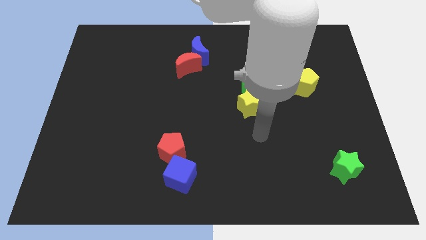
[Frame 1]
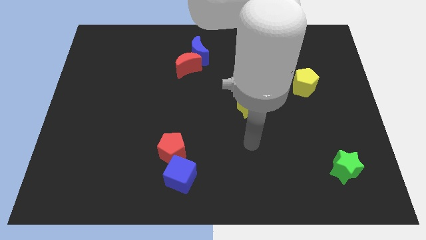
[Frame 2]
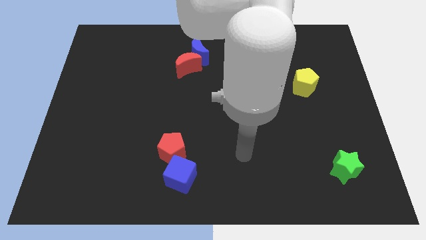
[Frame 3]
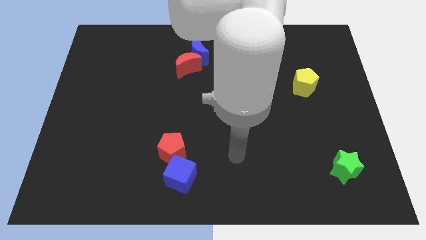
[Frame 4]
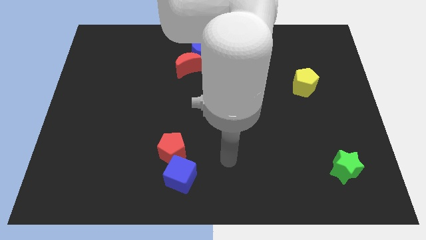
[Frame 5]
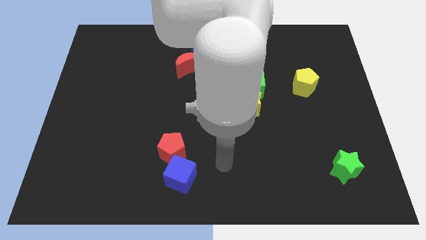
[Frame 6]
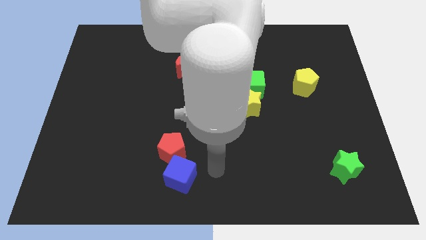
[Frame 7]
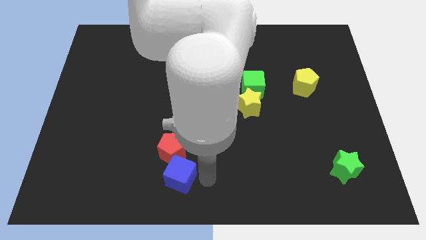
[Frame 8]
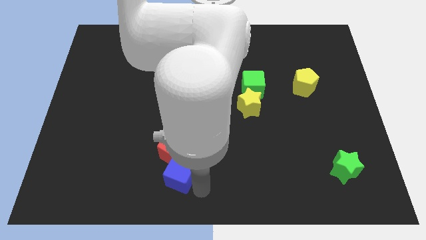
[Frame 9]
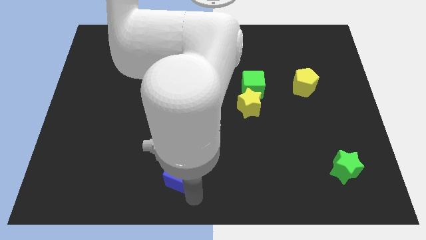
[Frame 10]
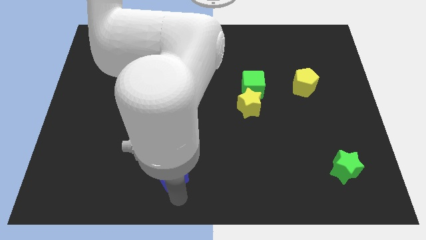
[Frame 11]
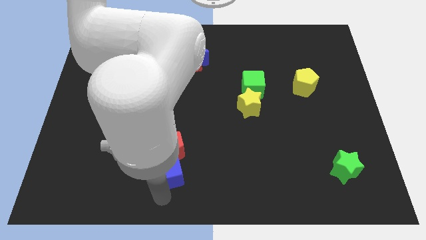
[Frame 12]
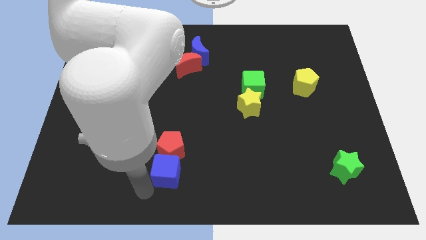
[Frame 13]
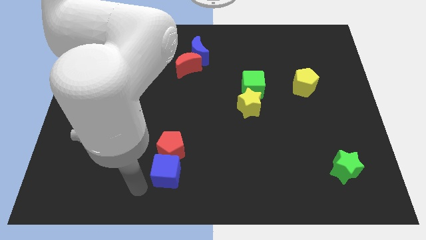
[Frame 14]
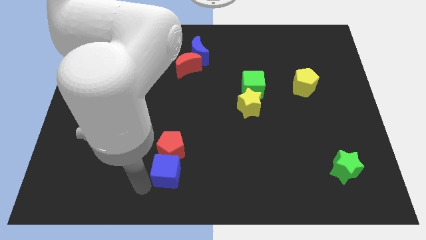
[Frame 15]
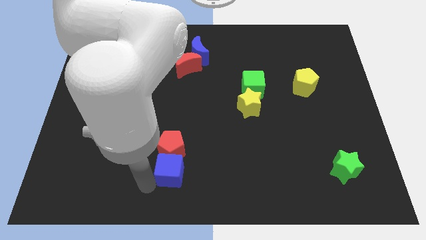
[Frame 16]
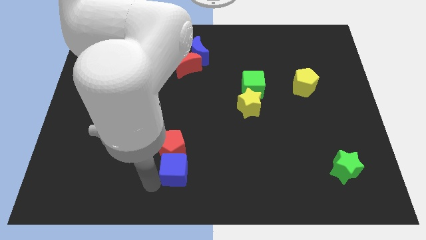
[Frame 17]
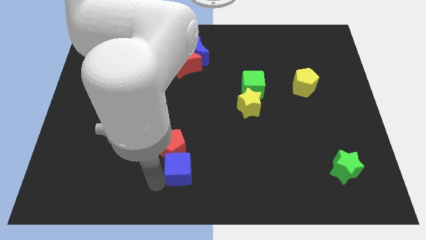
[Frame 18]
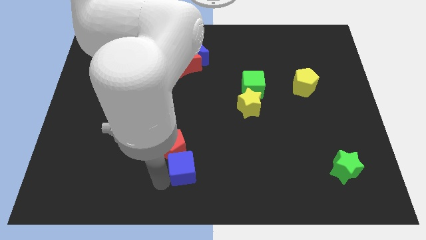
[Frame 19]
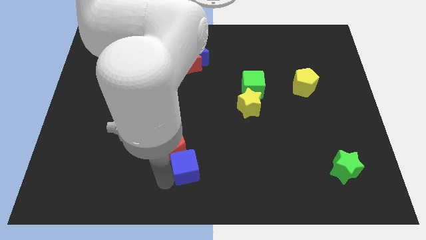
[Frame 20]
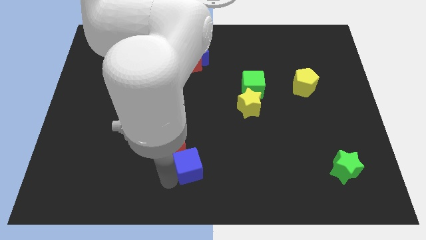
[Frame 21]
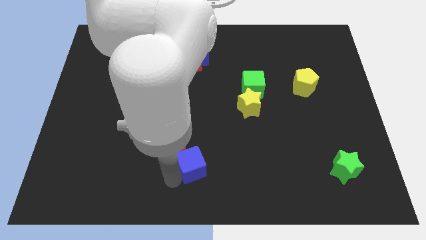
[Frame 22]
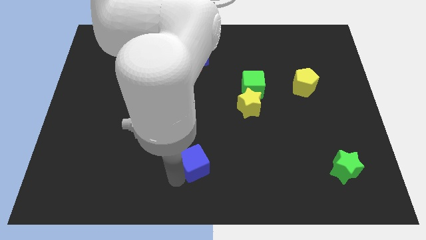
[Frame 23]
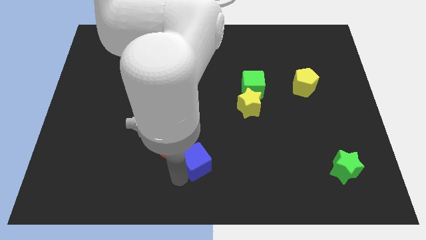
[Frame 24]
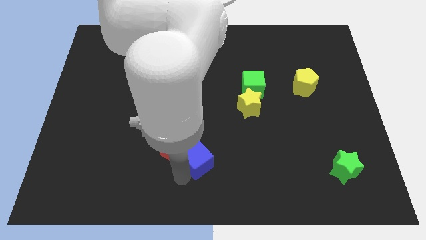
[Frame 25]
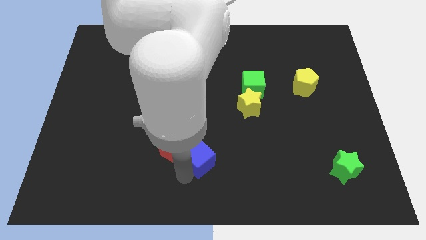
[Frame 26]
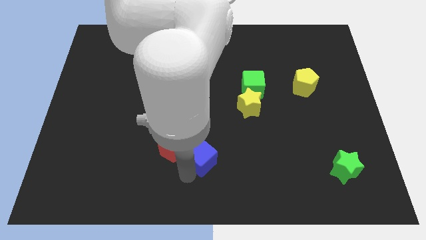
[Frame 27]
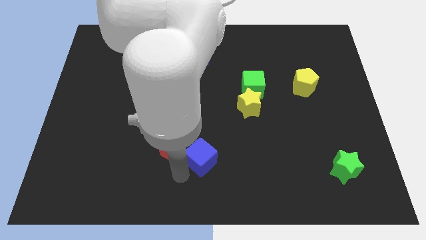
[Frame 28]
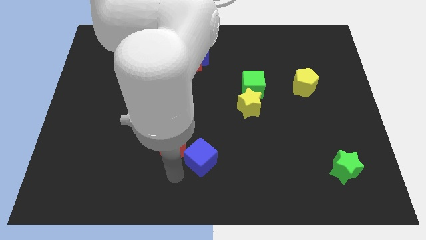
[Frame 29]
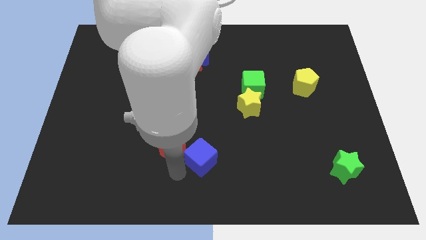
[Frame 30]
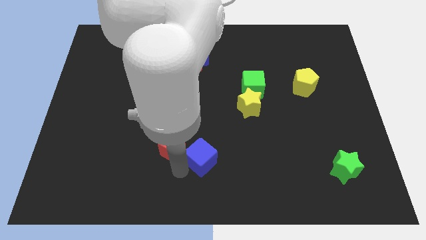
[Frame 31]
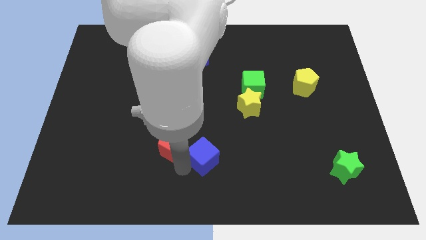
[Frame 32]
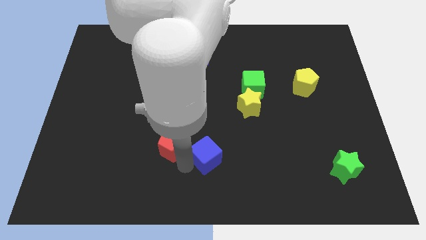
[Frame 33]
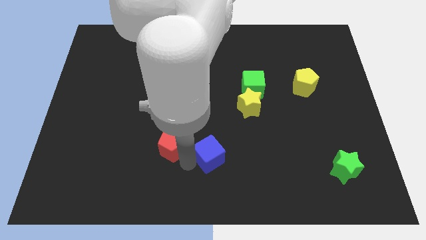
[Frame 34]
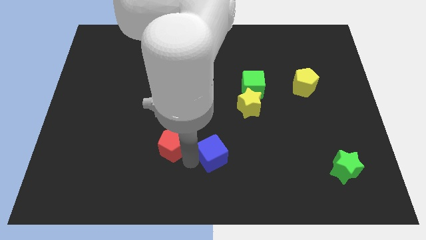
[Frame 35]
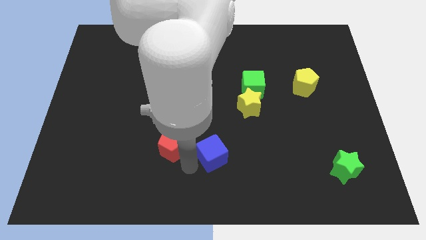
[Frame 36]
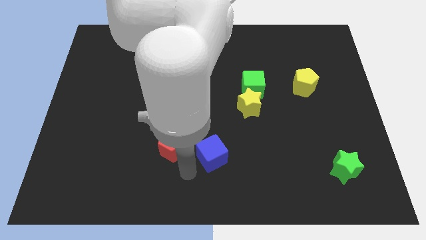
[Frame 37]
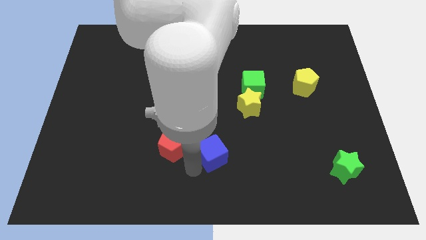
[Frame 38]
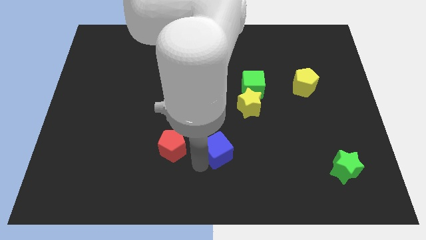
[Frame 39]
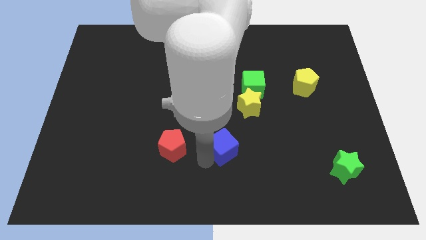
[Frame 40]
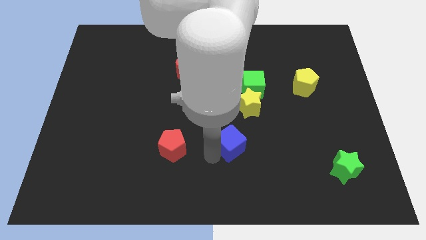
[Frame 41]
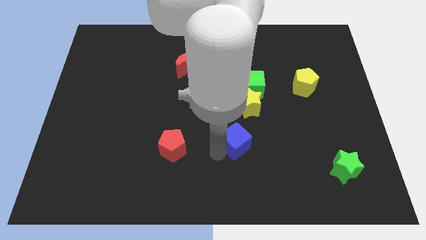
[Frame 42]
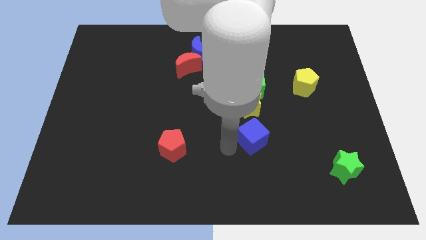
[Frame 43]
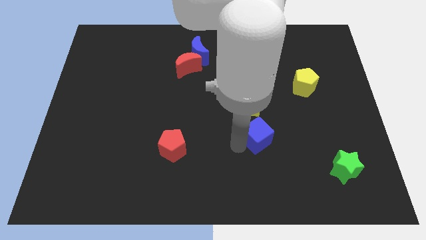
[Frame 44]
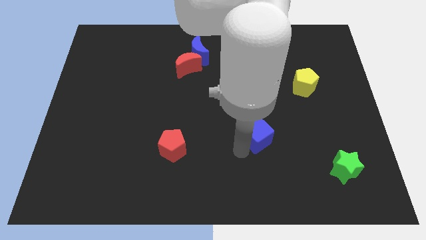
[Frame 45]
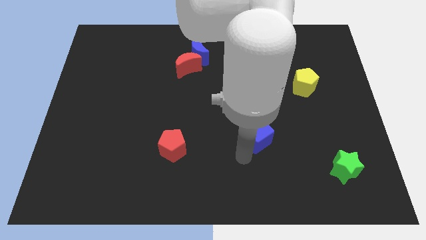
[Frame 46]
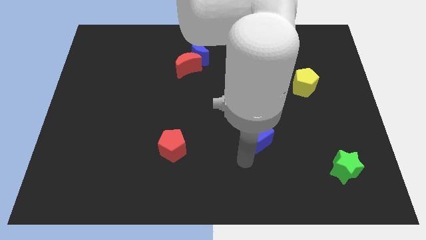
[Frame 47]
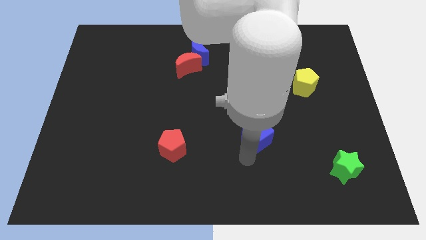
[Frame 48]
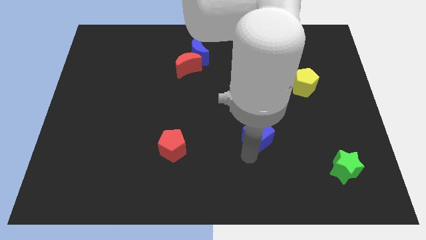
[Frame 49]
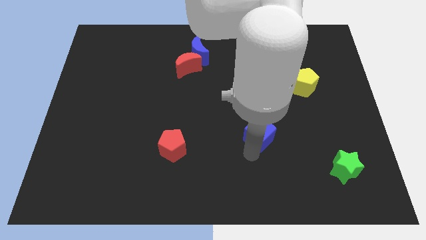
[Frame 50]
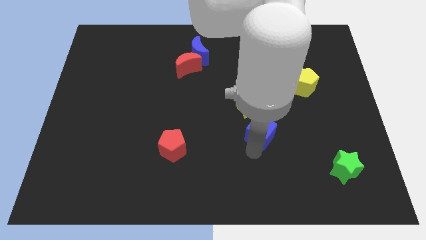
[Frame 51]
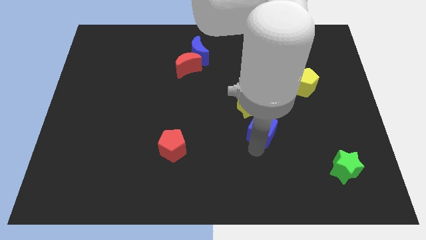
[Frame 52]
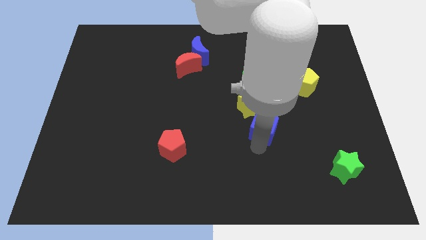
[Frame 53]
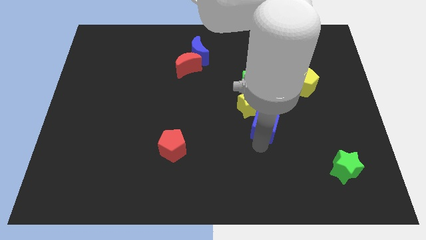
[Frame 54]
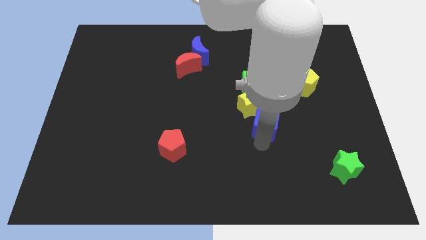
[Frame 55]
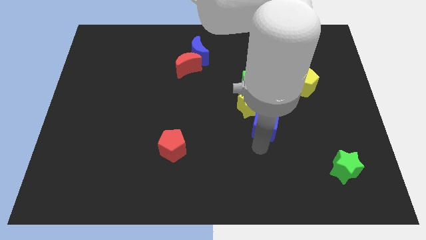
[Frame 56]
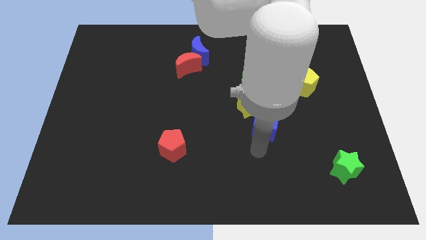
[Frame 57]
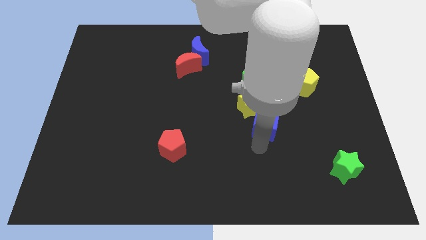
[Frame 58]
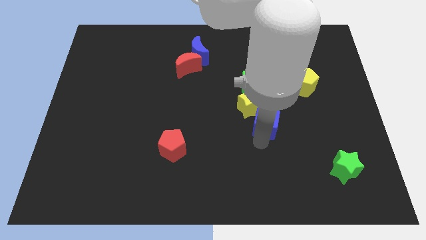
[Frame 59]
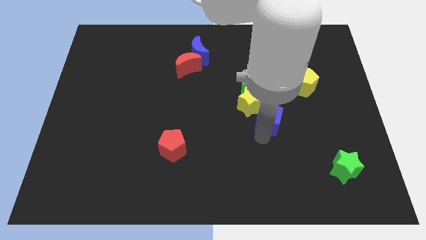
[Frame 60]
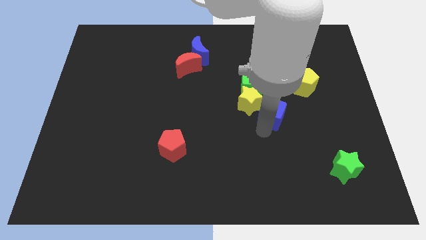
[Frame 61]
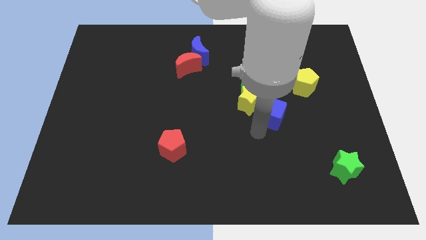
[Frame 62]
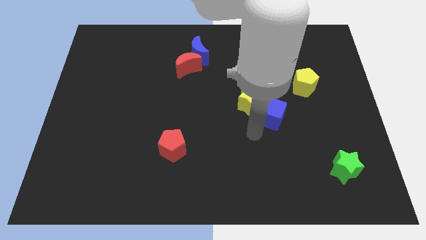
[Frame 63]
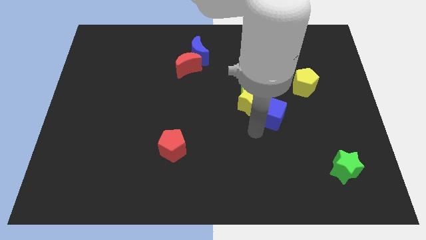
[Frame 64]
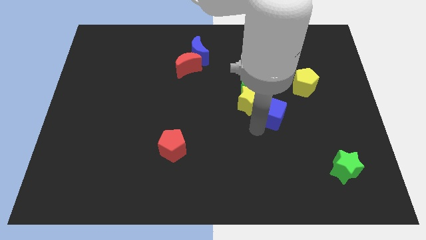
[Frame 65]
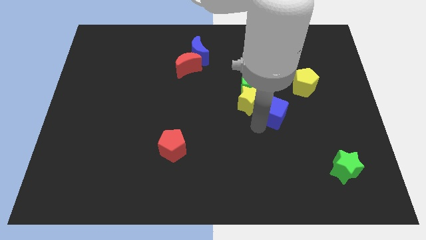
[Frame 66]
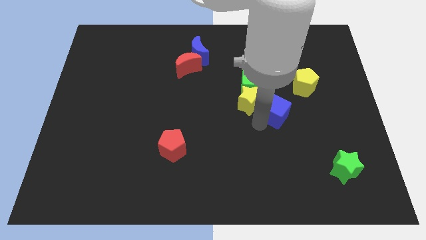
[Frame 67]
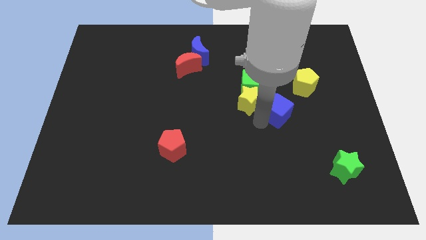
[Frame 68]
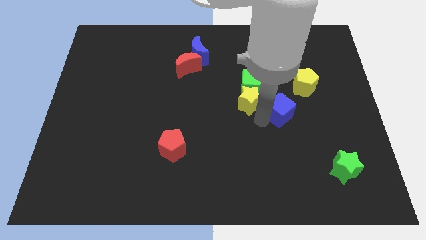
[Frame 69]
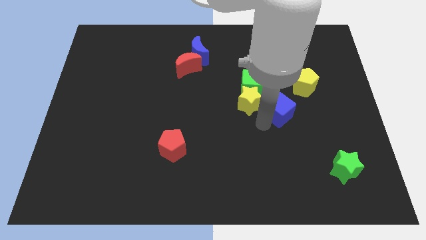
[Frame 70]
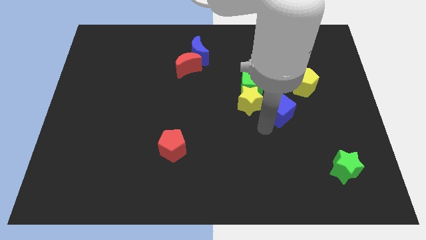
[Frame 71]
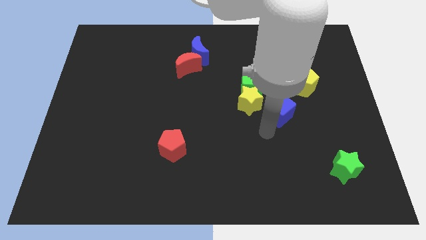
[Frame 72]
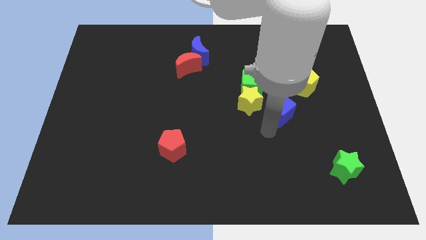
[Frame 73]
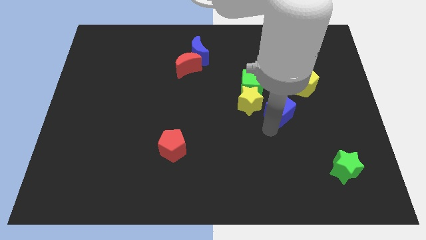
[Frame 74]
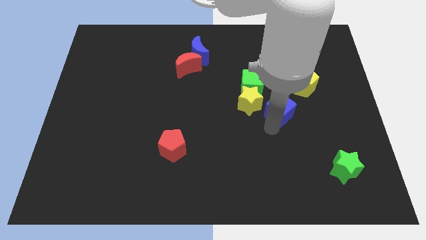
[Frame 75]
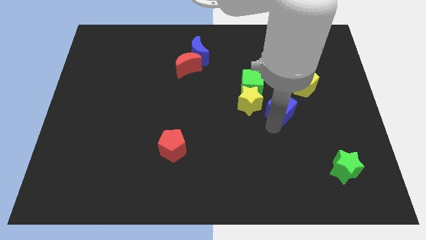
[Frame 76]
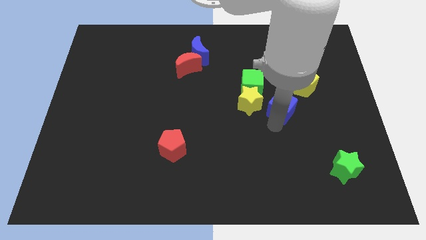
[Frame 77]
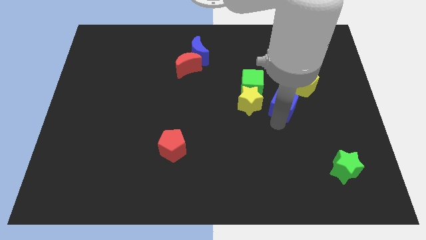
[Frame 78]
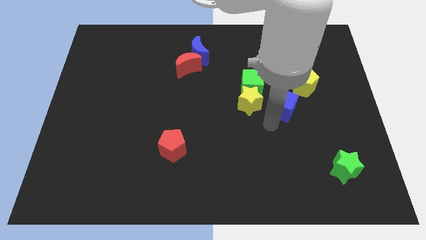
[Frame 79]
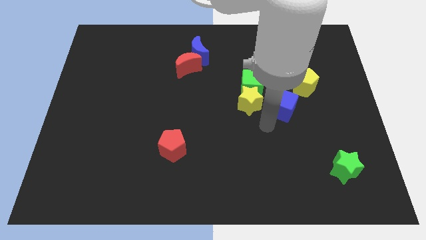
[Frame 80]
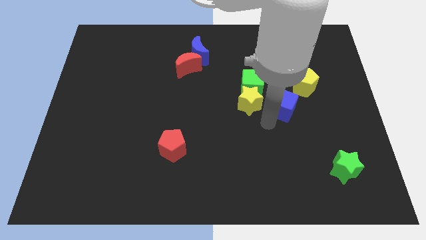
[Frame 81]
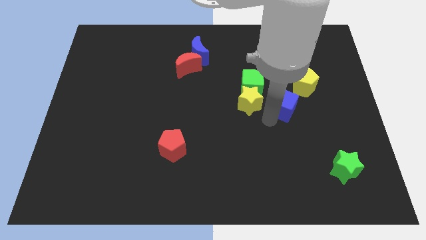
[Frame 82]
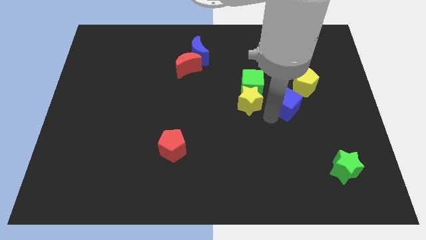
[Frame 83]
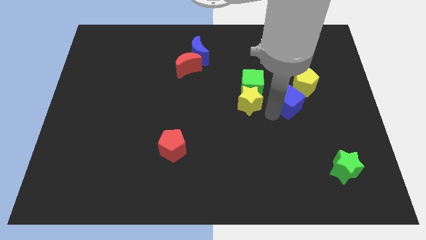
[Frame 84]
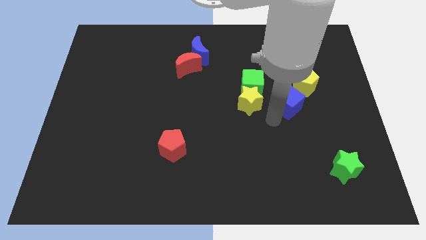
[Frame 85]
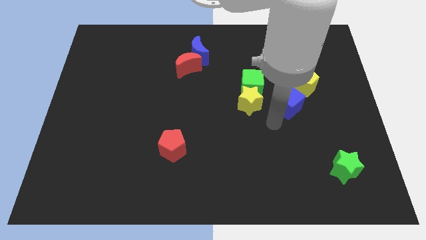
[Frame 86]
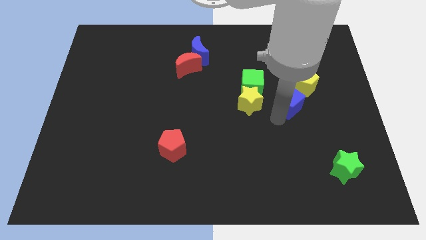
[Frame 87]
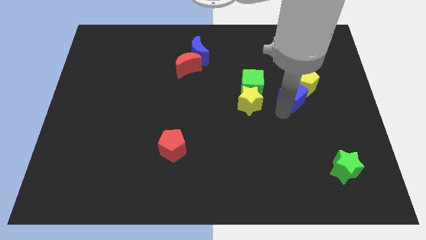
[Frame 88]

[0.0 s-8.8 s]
move the blue cube next to the yellow pentagon
